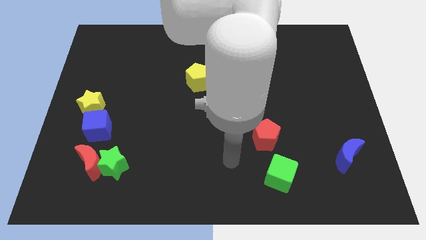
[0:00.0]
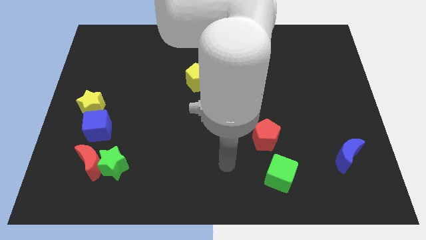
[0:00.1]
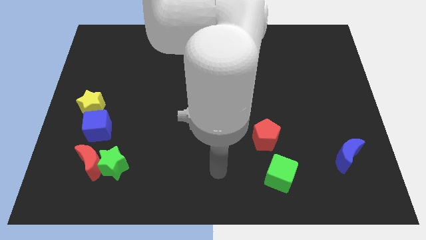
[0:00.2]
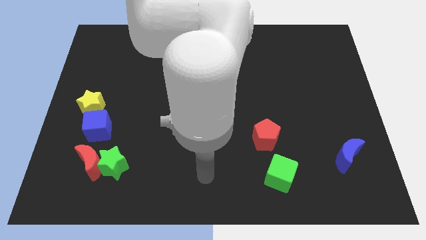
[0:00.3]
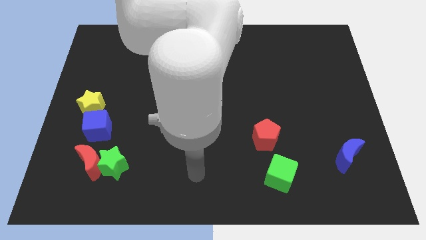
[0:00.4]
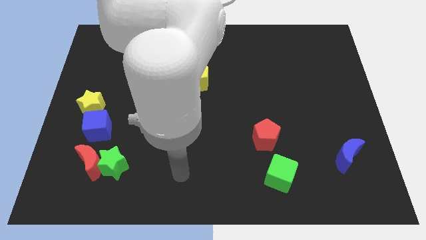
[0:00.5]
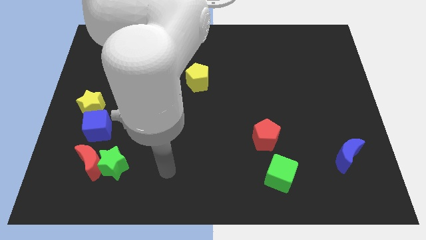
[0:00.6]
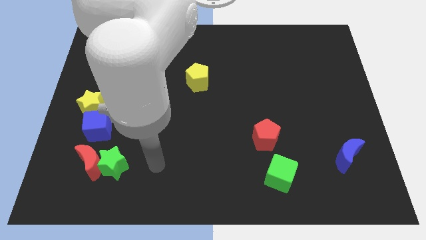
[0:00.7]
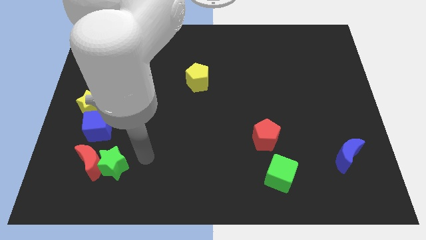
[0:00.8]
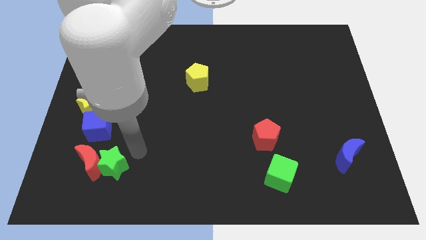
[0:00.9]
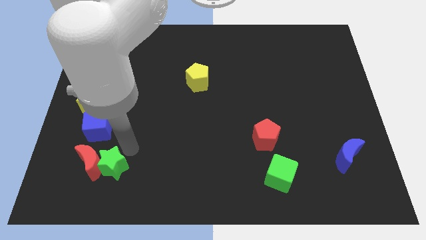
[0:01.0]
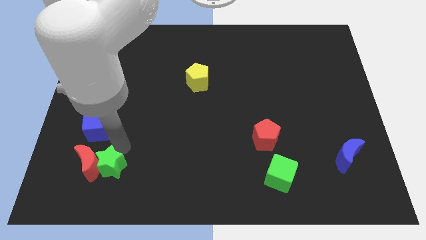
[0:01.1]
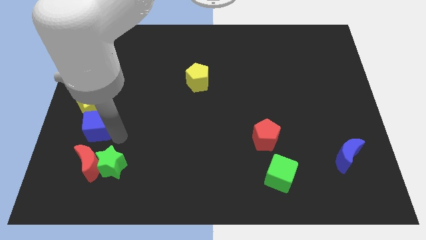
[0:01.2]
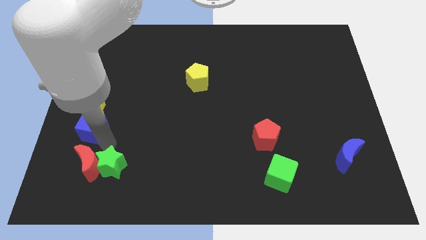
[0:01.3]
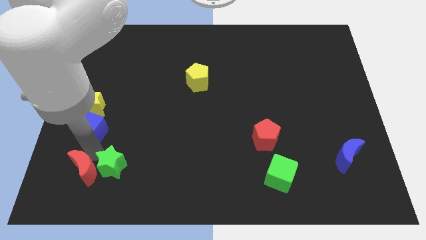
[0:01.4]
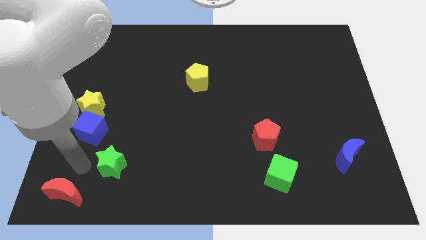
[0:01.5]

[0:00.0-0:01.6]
move the green star away from the red moon

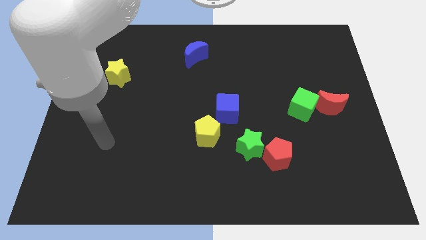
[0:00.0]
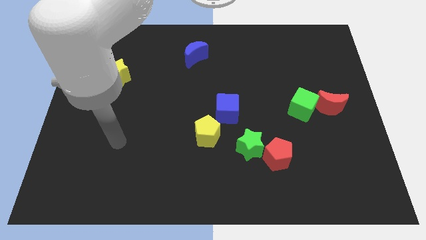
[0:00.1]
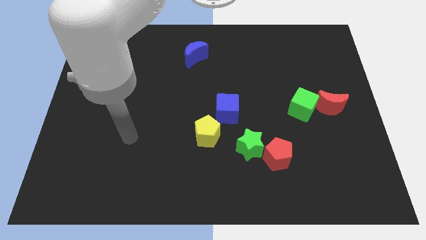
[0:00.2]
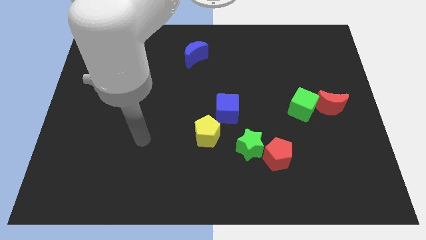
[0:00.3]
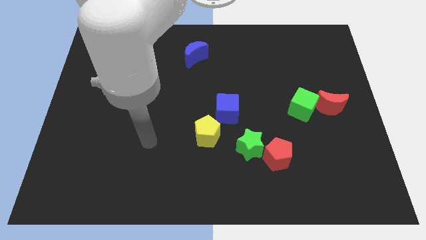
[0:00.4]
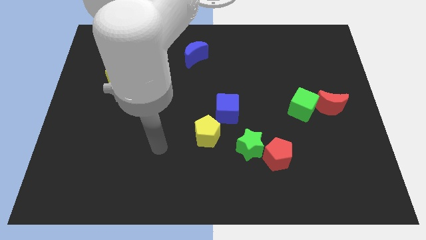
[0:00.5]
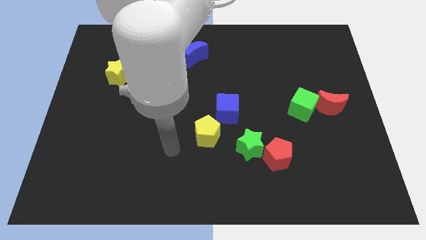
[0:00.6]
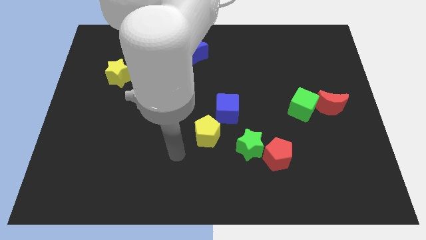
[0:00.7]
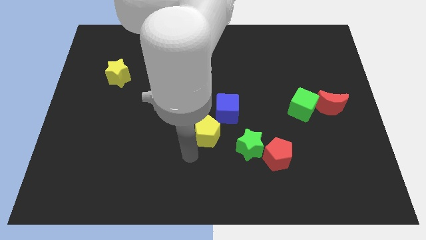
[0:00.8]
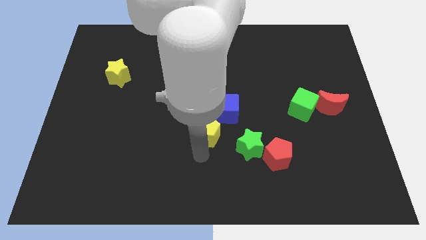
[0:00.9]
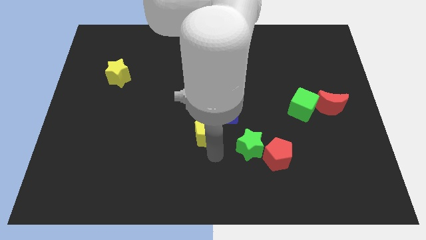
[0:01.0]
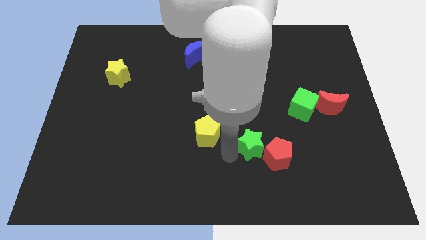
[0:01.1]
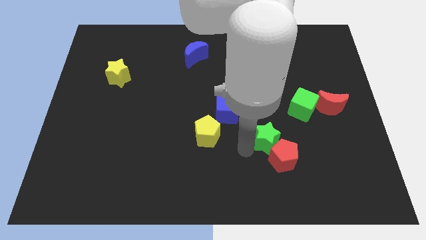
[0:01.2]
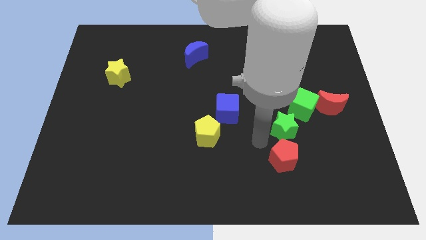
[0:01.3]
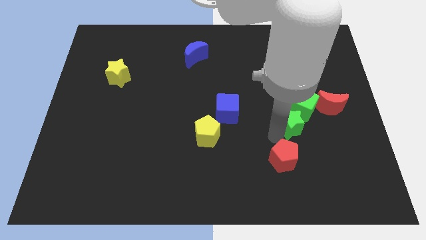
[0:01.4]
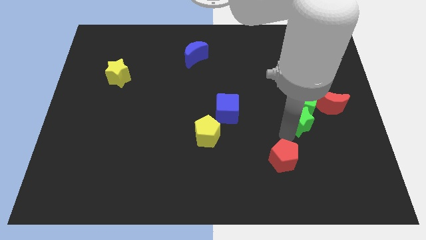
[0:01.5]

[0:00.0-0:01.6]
separate the red pentagon from the green star

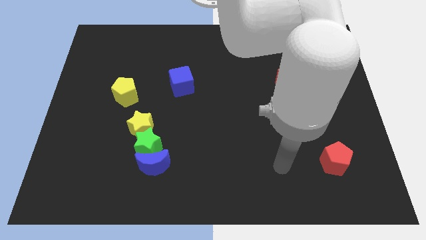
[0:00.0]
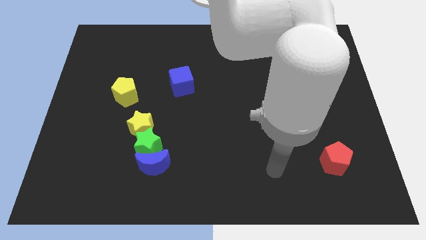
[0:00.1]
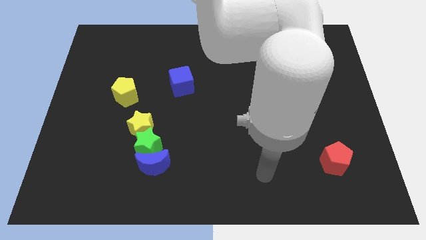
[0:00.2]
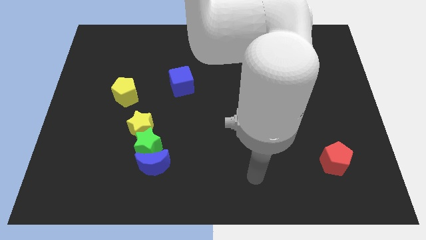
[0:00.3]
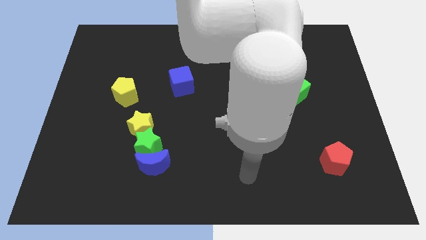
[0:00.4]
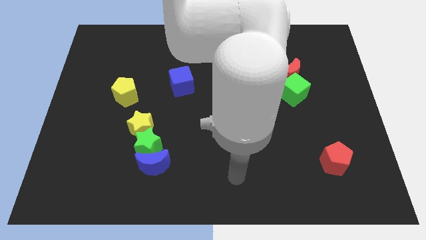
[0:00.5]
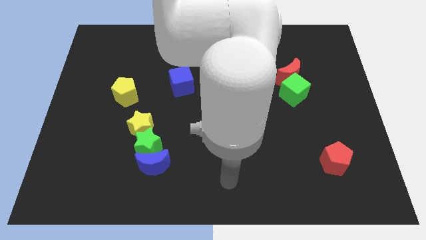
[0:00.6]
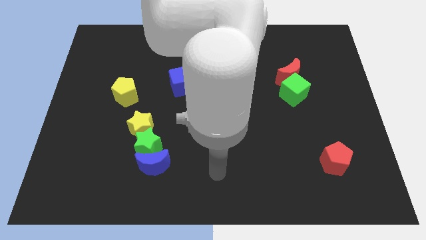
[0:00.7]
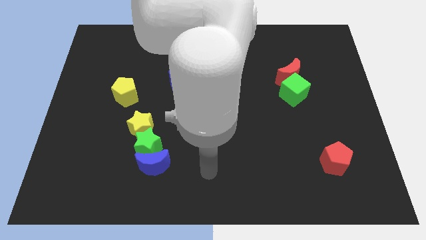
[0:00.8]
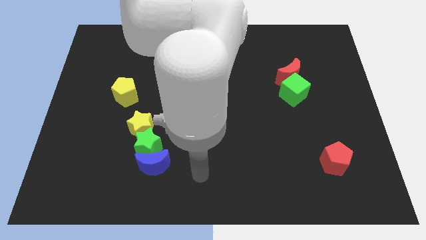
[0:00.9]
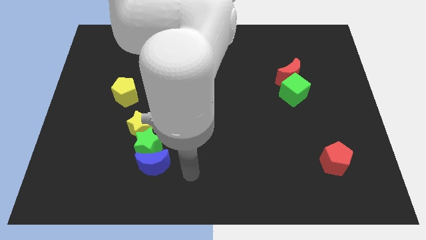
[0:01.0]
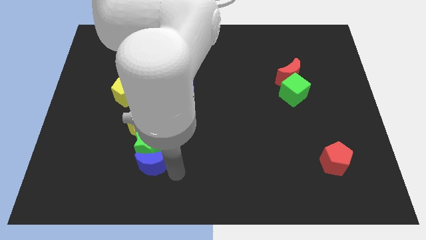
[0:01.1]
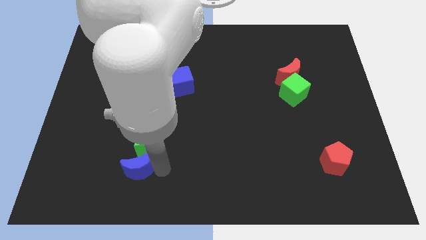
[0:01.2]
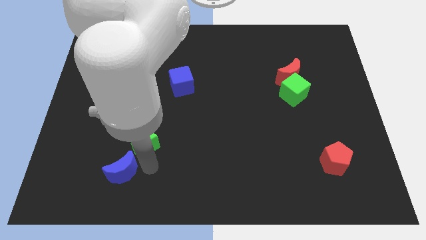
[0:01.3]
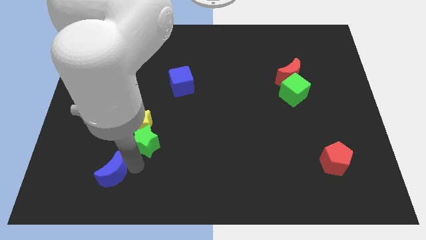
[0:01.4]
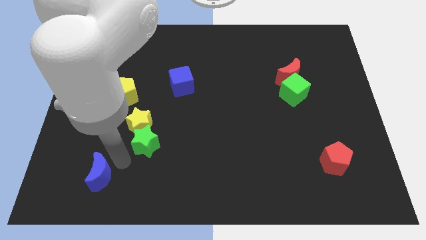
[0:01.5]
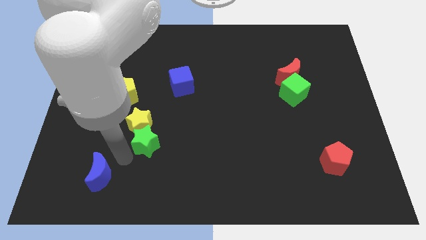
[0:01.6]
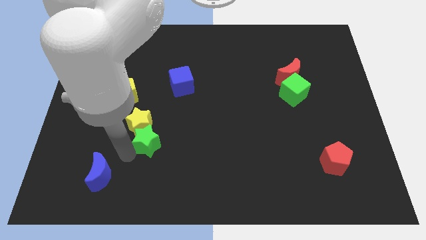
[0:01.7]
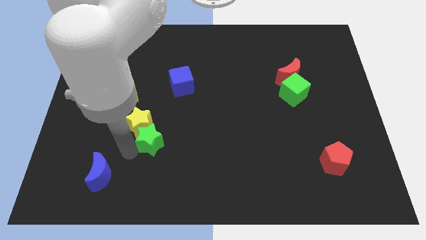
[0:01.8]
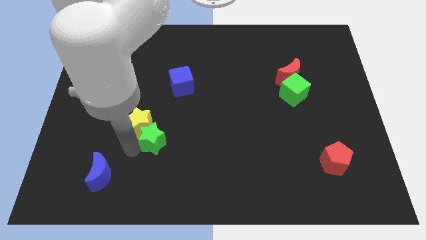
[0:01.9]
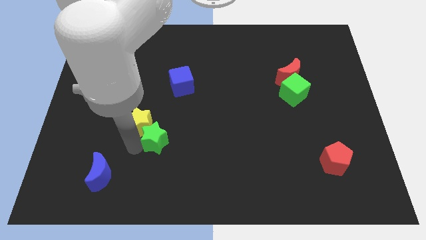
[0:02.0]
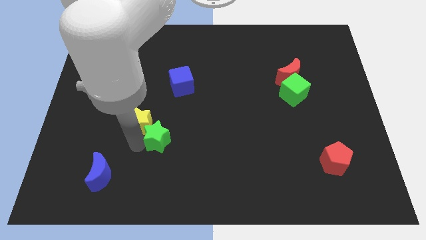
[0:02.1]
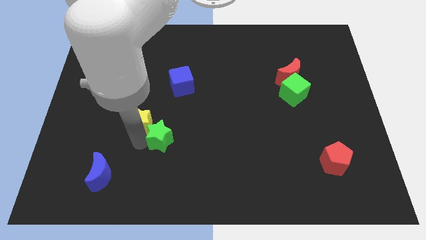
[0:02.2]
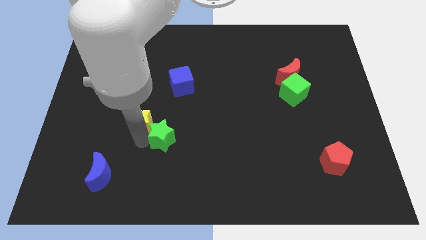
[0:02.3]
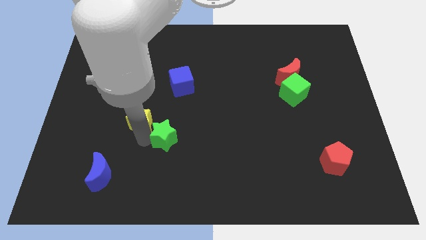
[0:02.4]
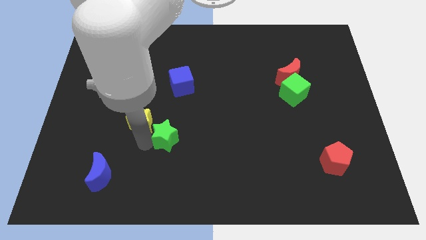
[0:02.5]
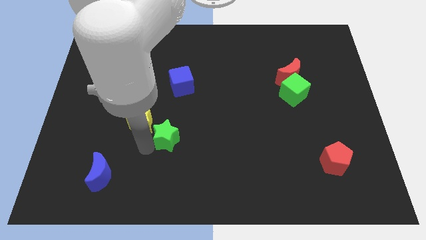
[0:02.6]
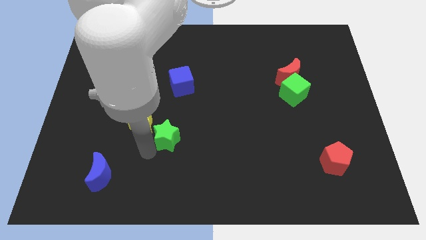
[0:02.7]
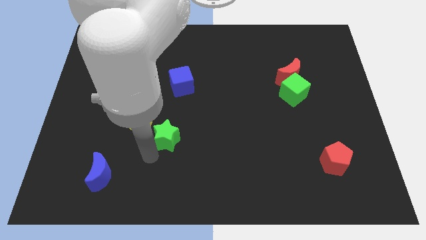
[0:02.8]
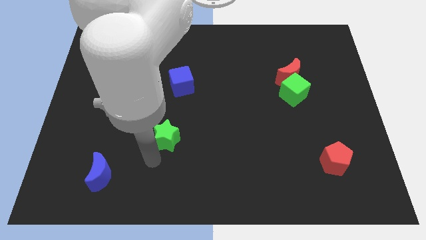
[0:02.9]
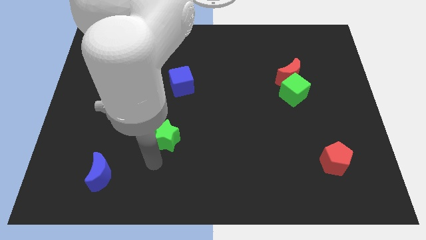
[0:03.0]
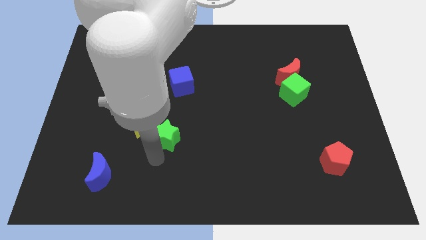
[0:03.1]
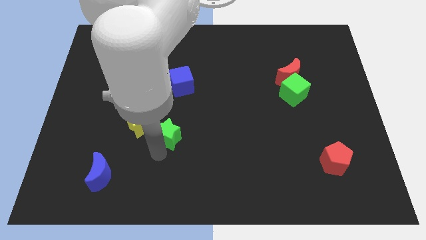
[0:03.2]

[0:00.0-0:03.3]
move the green star away from the yellow star and blue moon

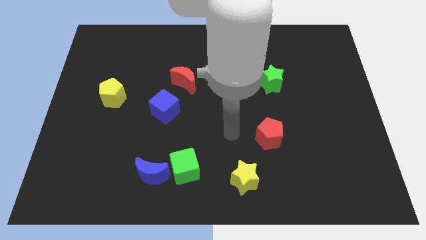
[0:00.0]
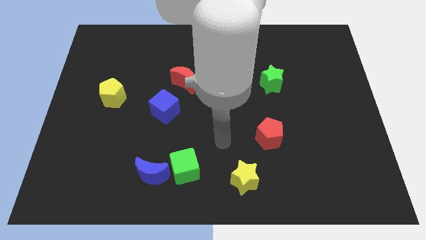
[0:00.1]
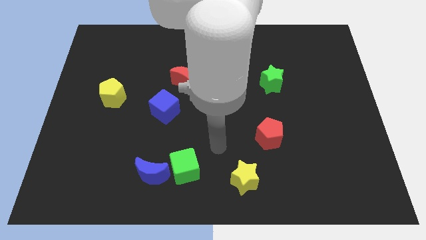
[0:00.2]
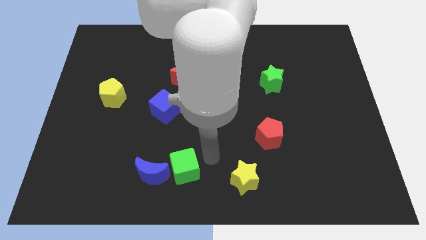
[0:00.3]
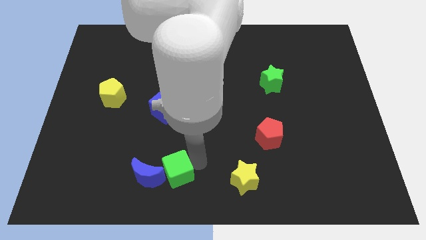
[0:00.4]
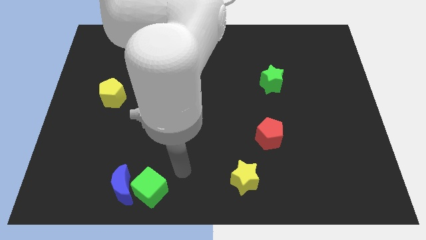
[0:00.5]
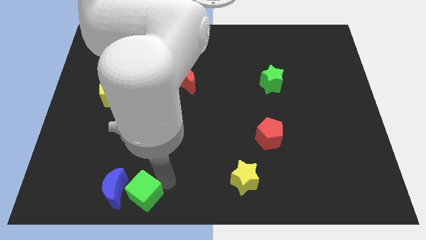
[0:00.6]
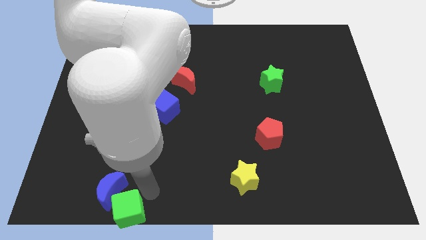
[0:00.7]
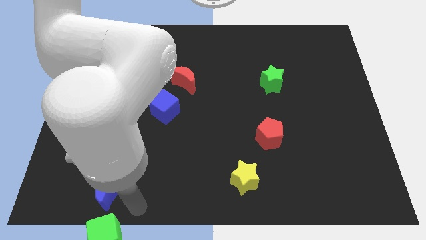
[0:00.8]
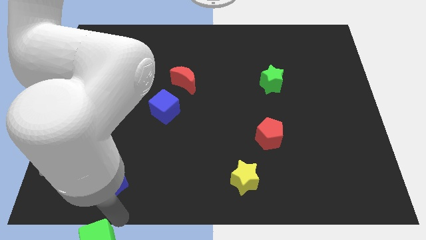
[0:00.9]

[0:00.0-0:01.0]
pull the blue moon apart from the green cube

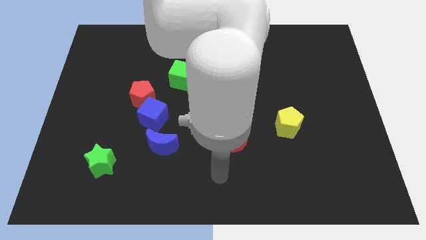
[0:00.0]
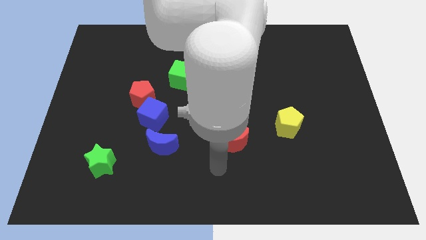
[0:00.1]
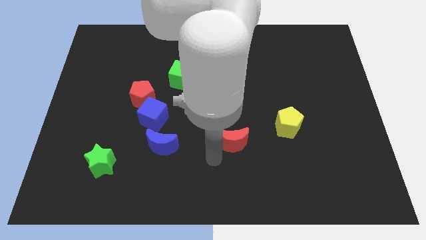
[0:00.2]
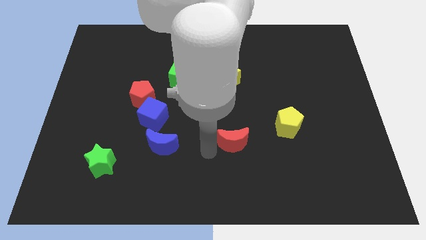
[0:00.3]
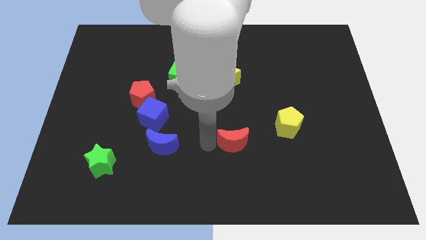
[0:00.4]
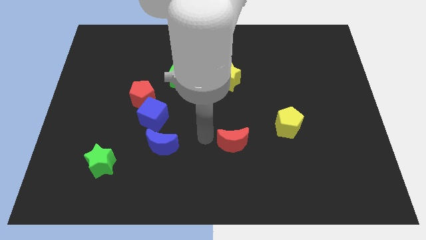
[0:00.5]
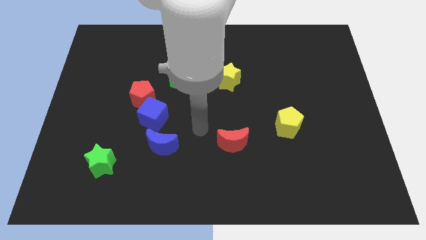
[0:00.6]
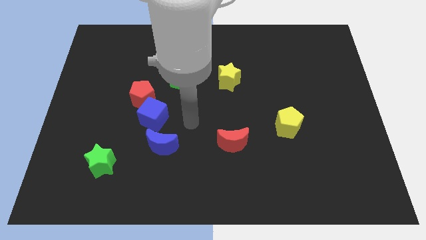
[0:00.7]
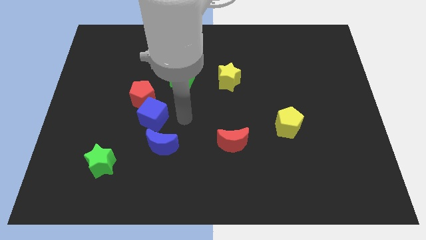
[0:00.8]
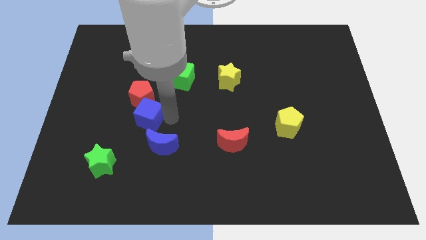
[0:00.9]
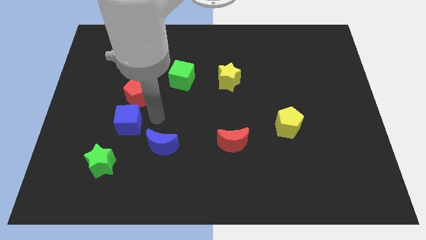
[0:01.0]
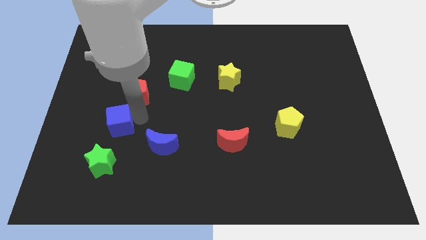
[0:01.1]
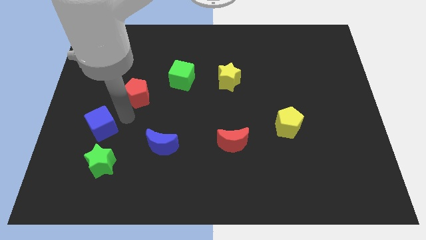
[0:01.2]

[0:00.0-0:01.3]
move the red pentagon away from the blue cube

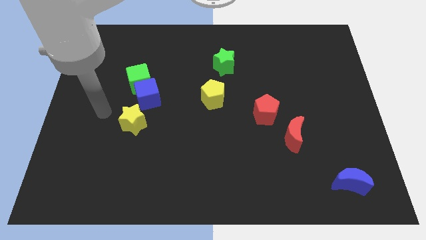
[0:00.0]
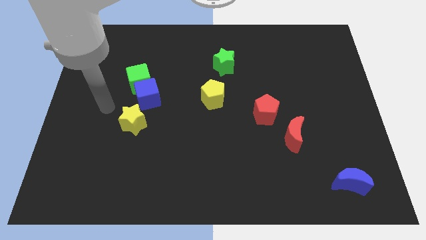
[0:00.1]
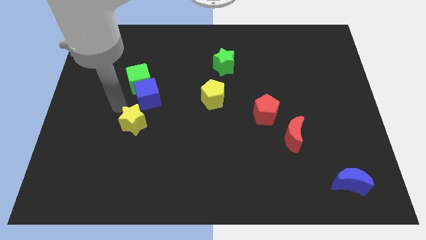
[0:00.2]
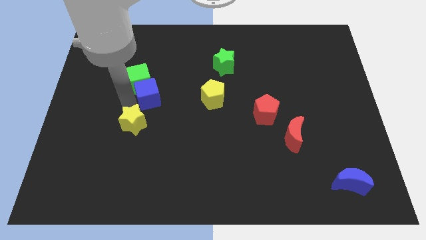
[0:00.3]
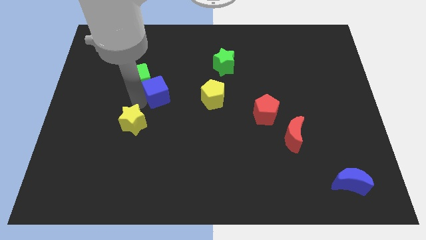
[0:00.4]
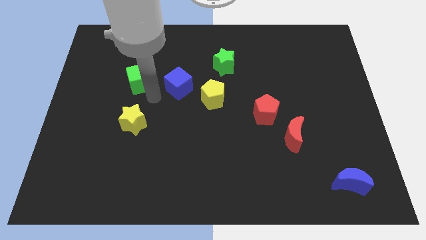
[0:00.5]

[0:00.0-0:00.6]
pull the green cube apart from the blue cube
